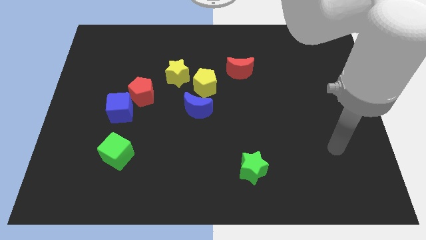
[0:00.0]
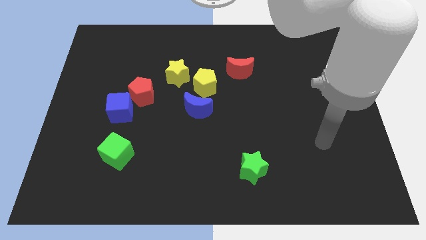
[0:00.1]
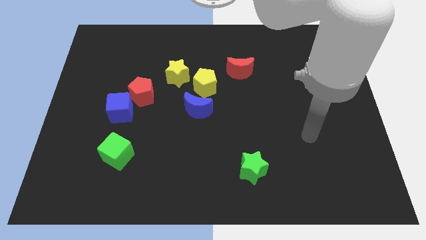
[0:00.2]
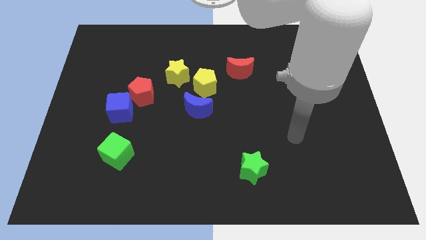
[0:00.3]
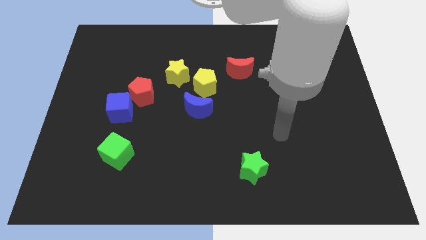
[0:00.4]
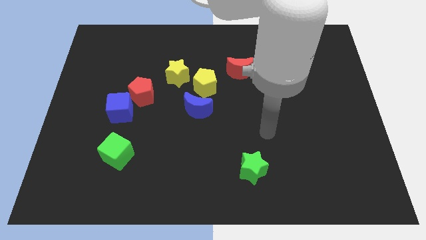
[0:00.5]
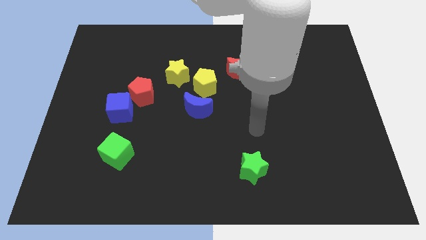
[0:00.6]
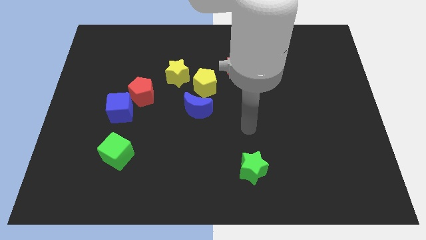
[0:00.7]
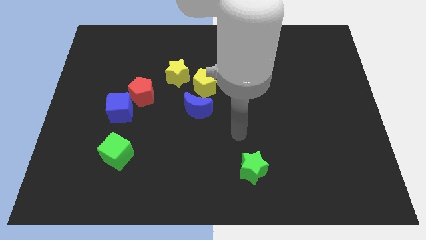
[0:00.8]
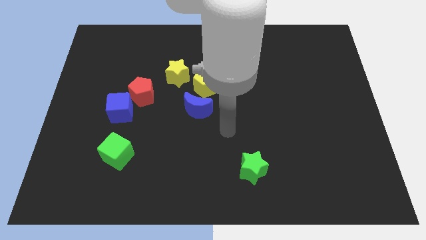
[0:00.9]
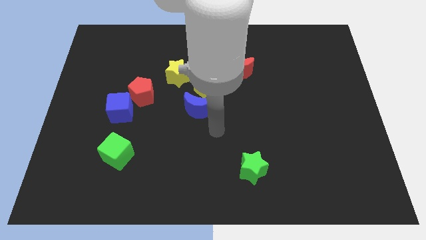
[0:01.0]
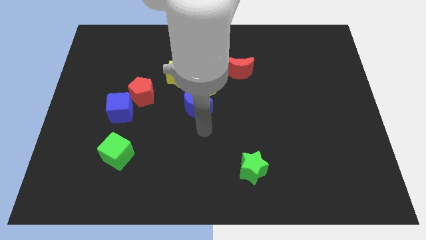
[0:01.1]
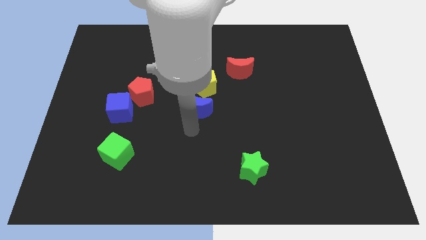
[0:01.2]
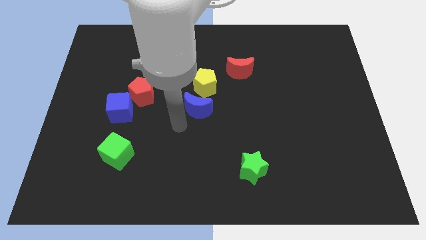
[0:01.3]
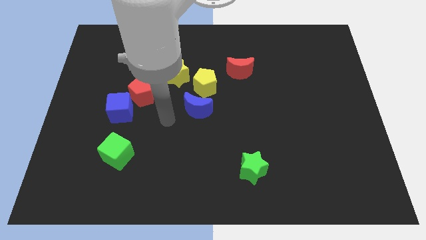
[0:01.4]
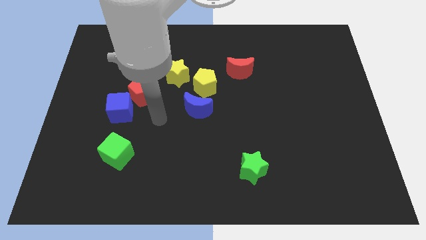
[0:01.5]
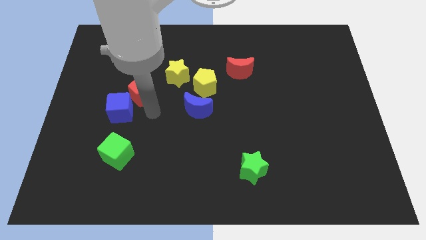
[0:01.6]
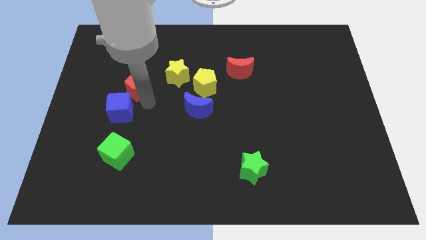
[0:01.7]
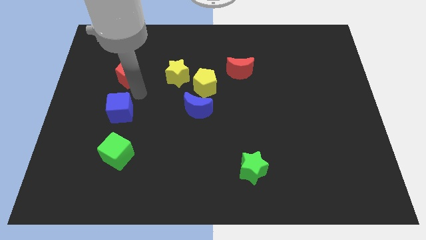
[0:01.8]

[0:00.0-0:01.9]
separate the blue cube from the red pentagon

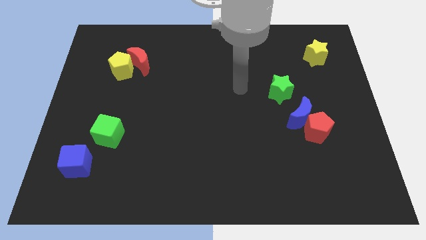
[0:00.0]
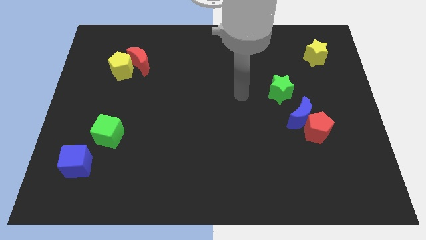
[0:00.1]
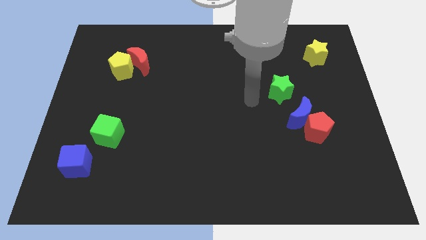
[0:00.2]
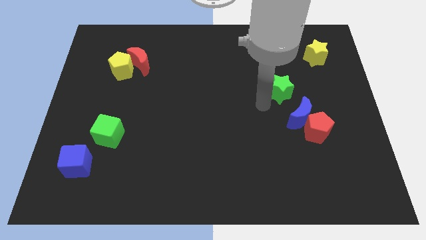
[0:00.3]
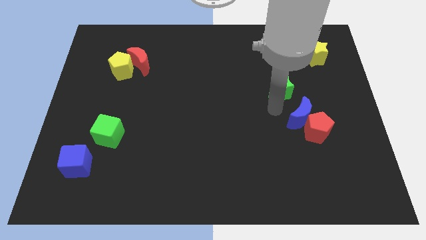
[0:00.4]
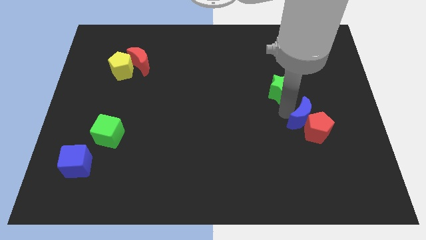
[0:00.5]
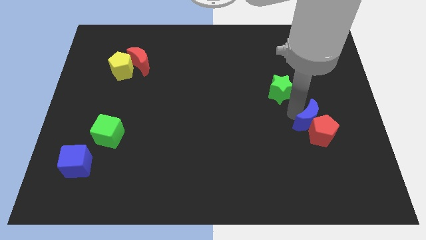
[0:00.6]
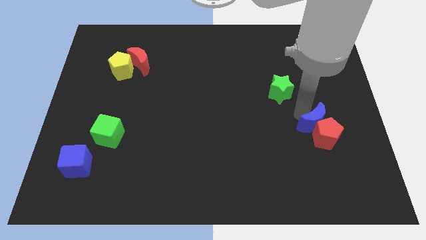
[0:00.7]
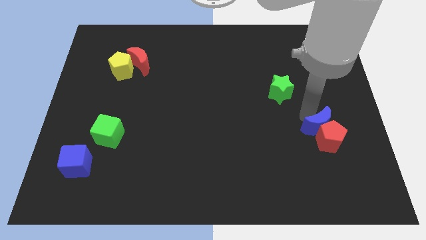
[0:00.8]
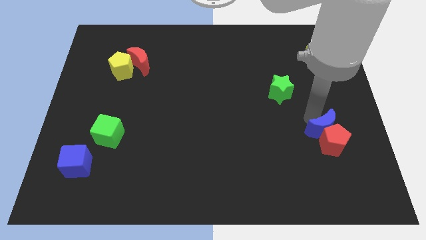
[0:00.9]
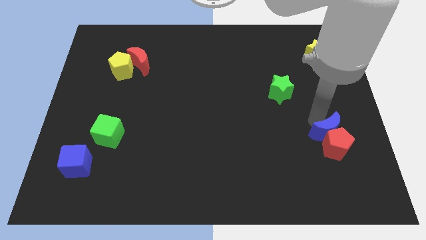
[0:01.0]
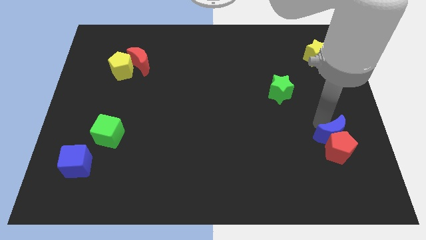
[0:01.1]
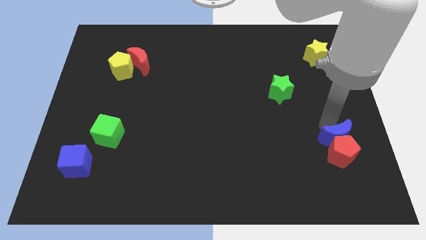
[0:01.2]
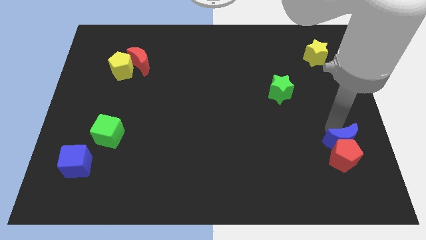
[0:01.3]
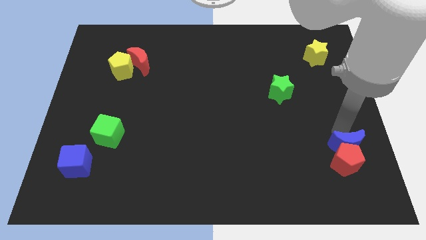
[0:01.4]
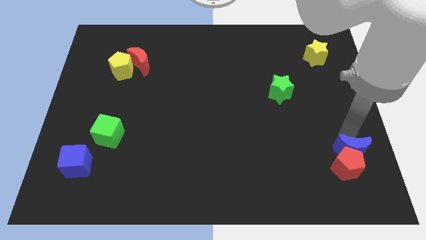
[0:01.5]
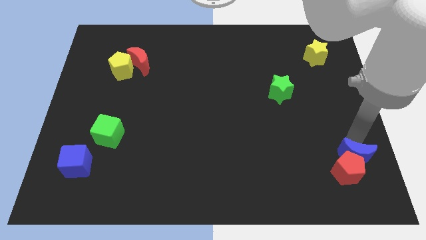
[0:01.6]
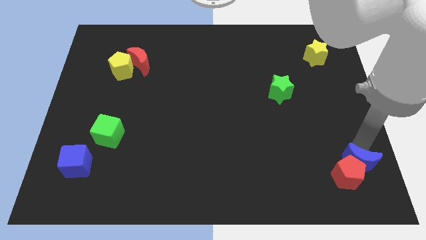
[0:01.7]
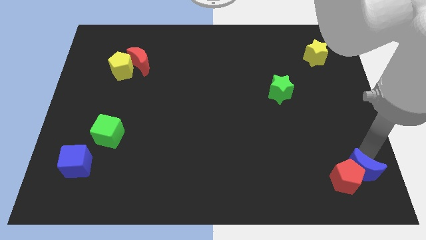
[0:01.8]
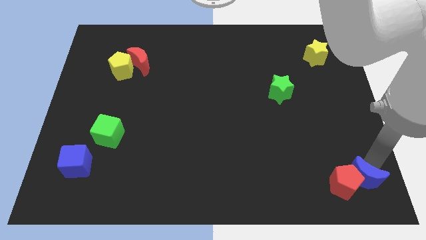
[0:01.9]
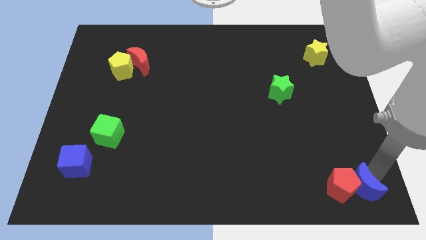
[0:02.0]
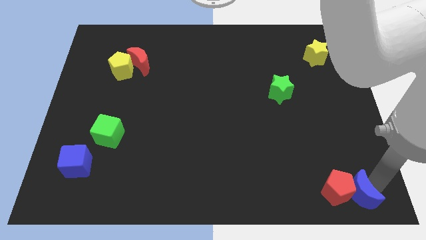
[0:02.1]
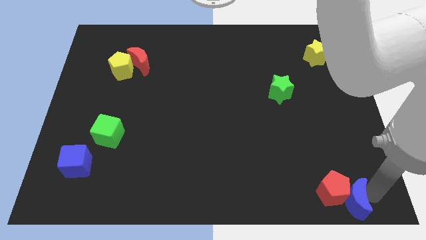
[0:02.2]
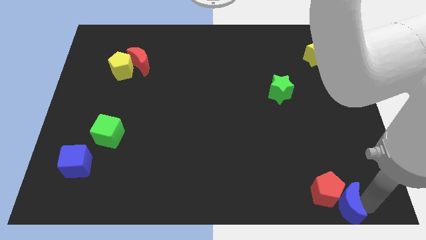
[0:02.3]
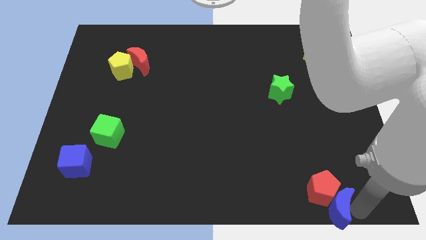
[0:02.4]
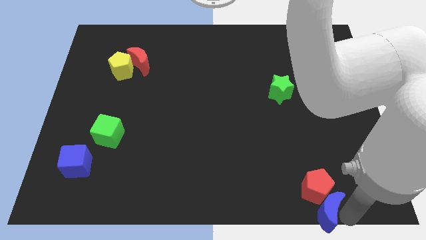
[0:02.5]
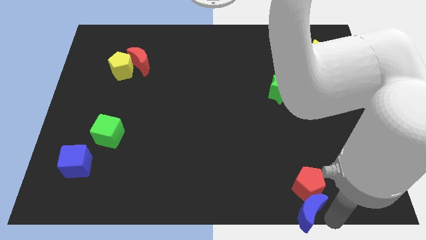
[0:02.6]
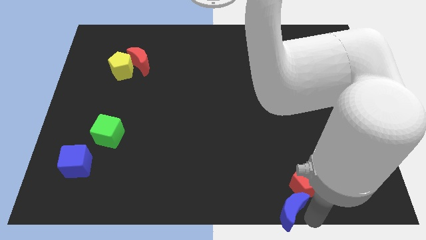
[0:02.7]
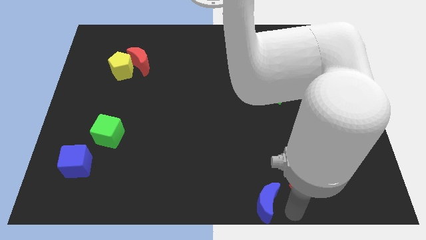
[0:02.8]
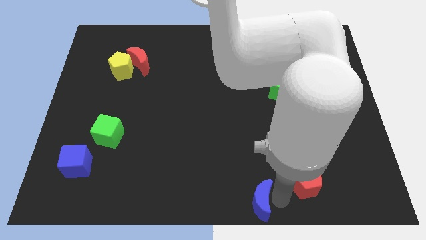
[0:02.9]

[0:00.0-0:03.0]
move the red pentagon away from the blue moon

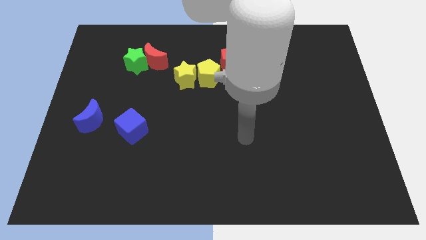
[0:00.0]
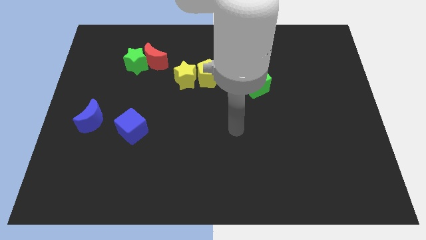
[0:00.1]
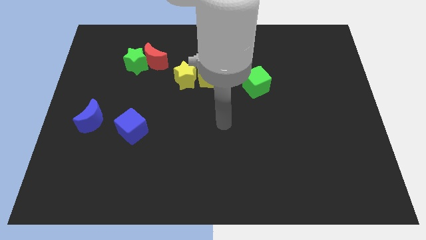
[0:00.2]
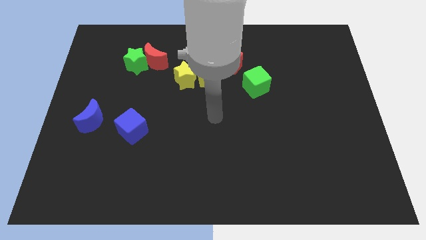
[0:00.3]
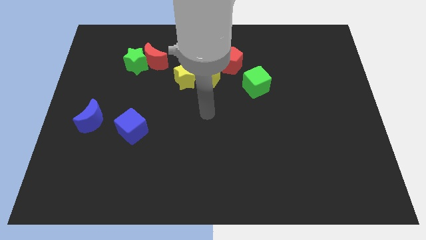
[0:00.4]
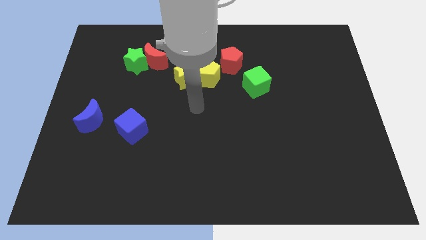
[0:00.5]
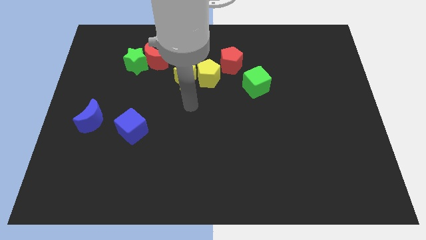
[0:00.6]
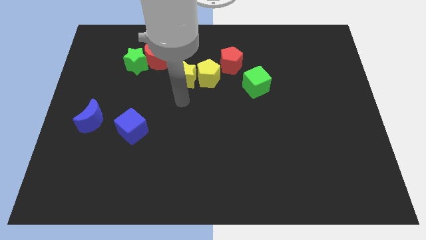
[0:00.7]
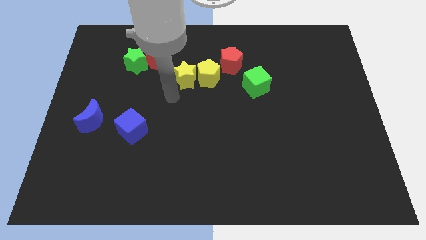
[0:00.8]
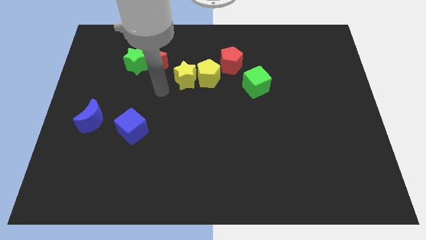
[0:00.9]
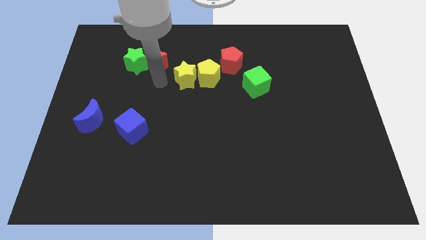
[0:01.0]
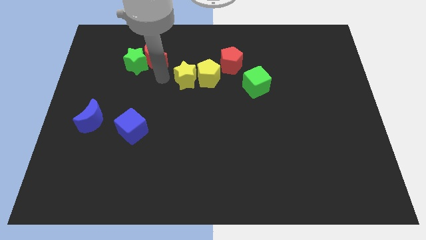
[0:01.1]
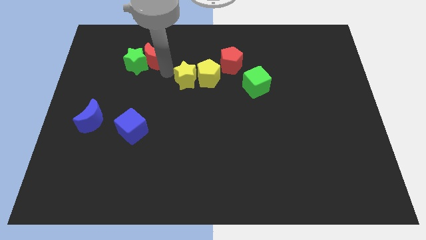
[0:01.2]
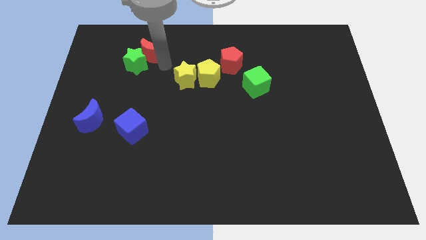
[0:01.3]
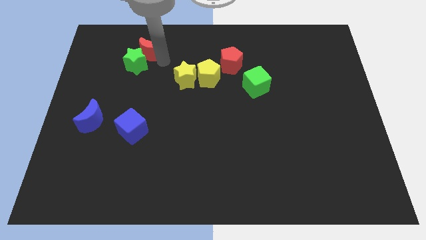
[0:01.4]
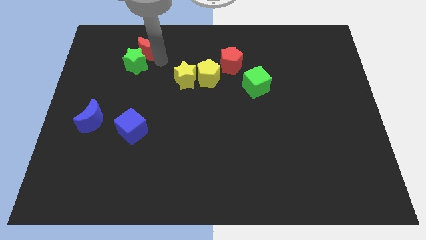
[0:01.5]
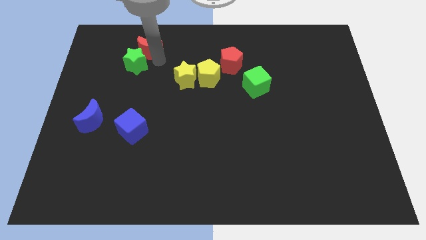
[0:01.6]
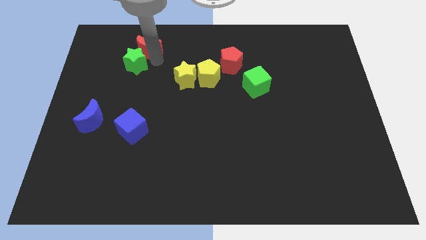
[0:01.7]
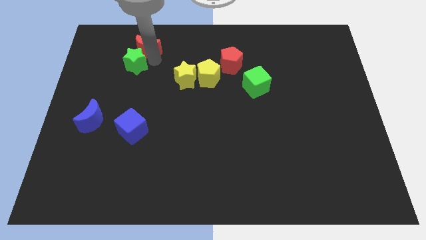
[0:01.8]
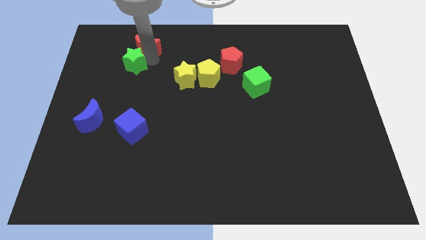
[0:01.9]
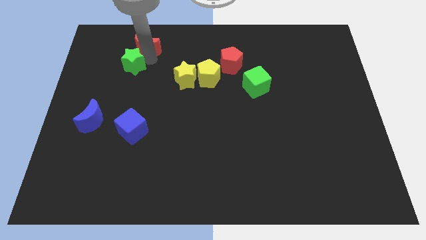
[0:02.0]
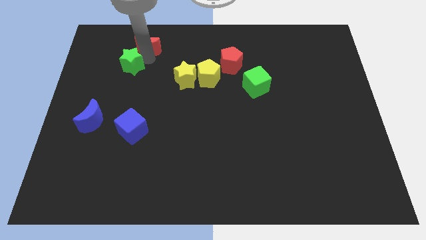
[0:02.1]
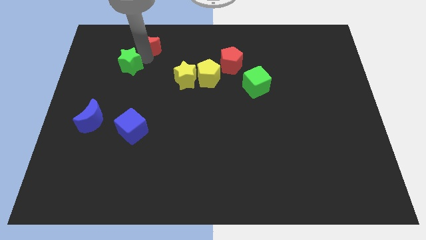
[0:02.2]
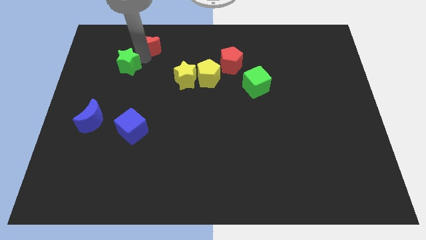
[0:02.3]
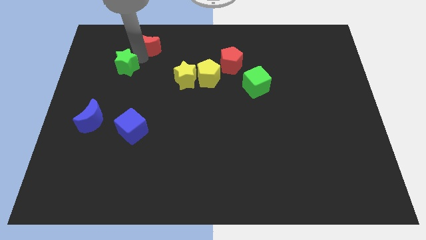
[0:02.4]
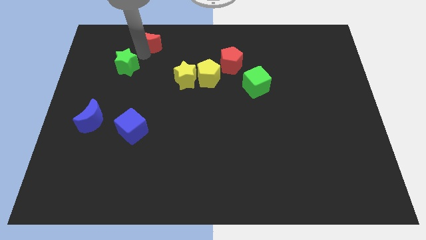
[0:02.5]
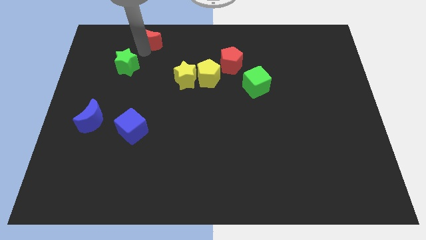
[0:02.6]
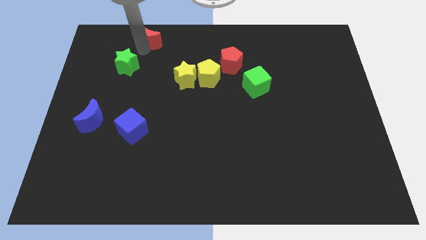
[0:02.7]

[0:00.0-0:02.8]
move the green star away from the red moon

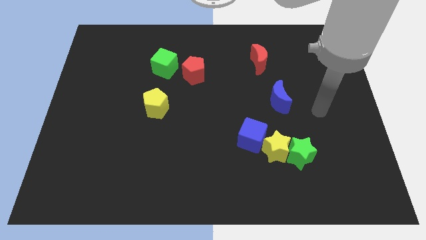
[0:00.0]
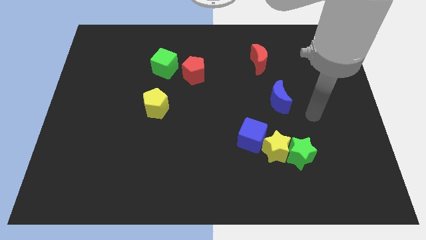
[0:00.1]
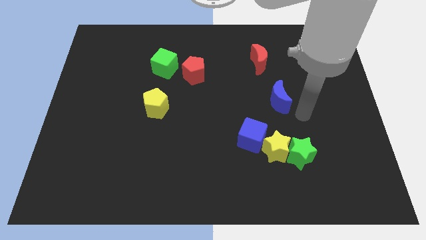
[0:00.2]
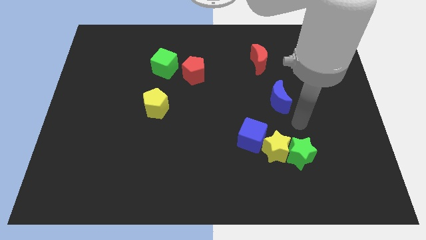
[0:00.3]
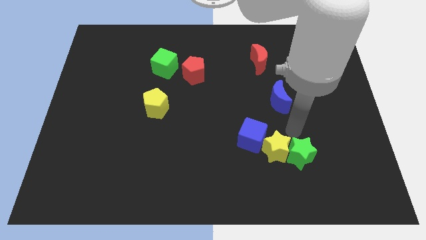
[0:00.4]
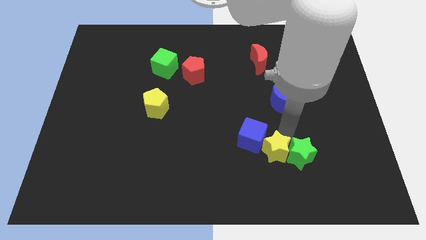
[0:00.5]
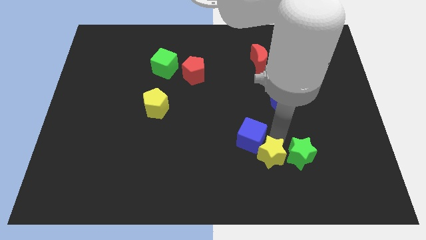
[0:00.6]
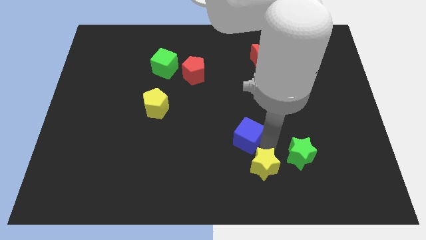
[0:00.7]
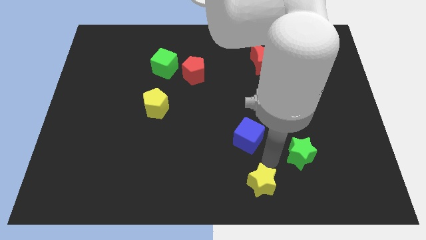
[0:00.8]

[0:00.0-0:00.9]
separate the green star from the yellow star

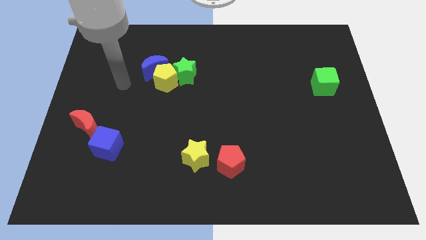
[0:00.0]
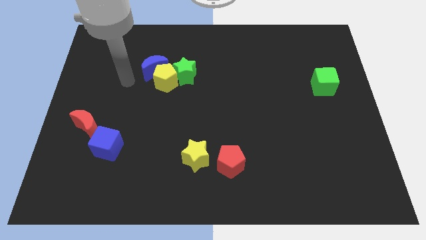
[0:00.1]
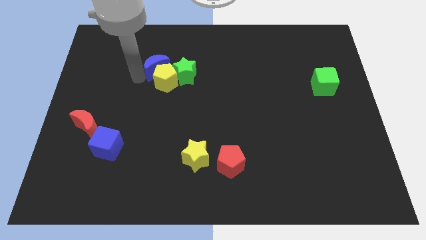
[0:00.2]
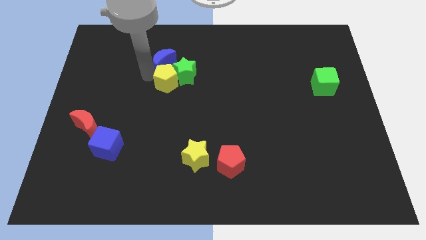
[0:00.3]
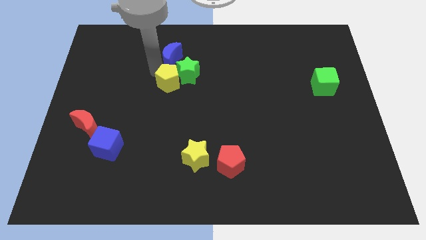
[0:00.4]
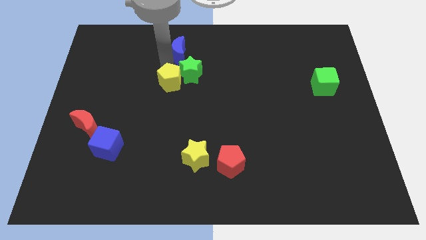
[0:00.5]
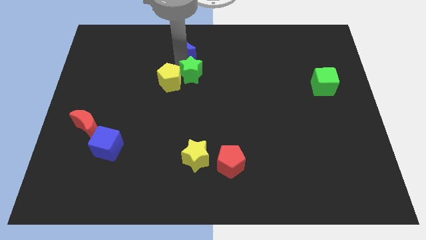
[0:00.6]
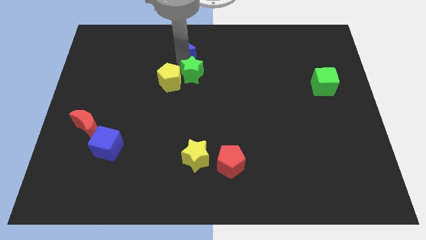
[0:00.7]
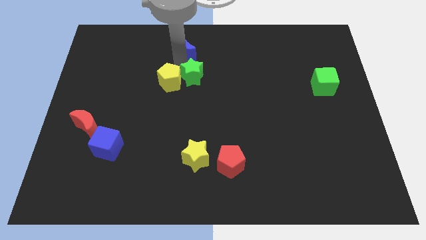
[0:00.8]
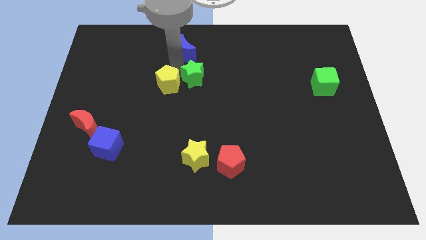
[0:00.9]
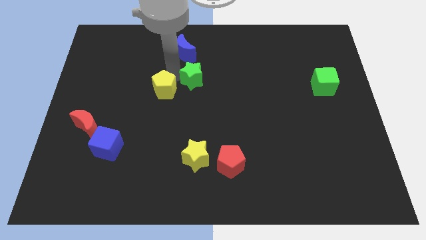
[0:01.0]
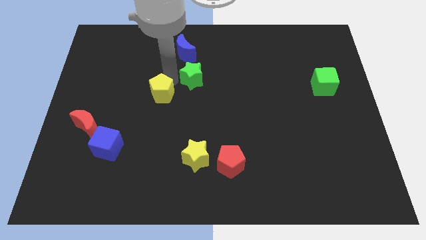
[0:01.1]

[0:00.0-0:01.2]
move the yellow pentagon away from the blue moon and green star
